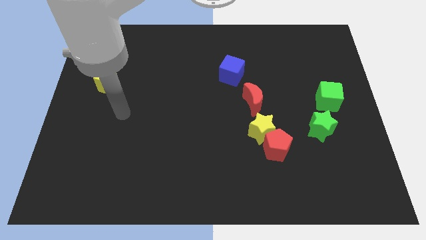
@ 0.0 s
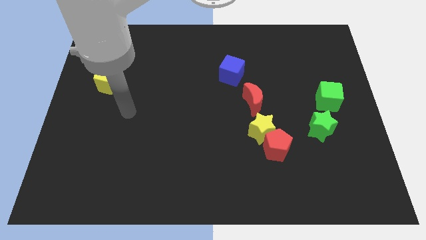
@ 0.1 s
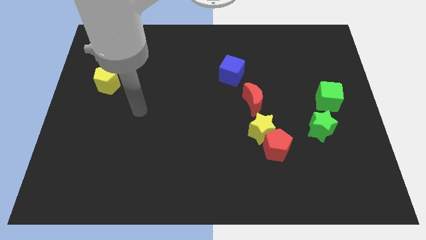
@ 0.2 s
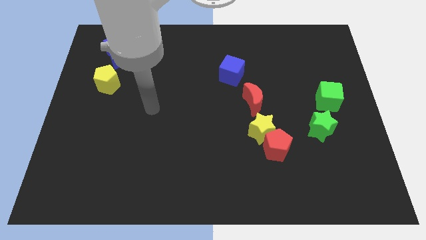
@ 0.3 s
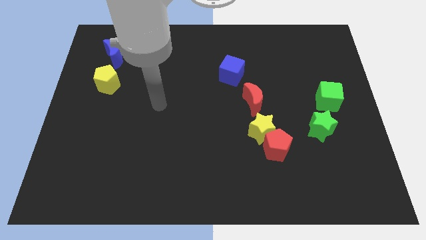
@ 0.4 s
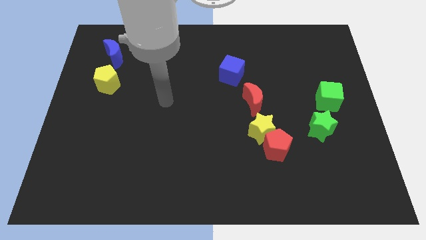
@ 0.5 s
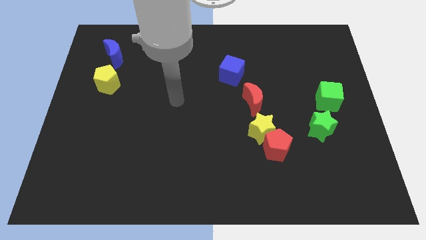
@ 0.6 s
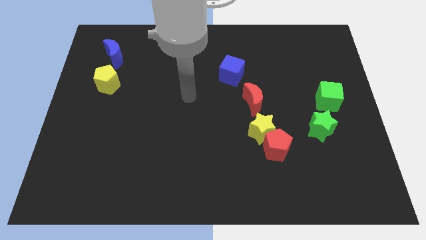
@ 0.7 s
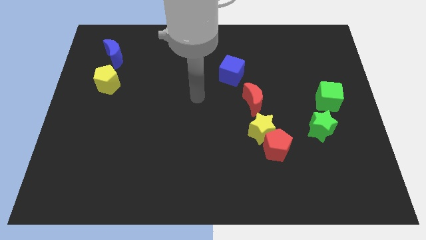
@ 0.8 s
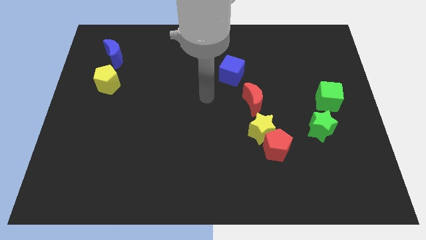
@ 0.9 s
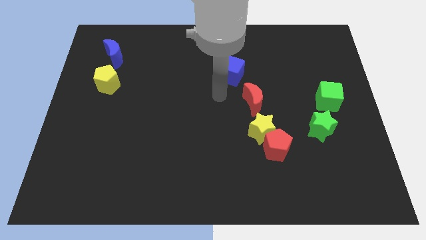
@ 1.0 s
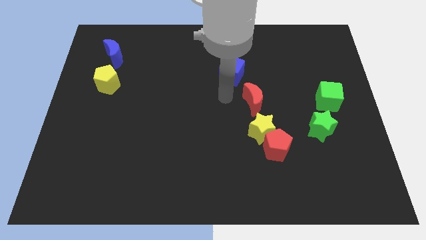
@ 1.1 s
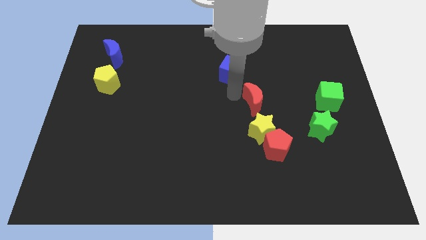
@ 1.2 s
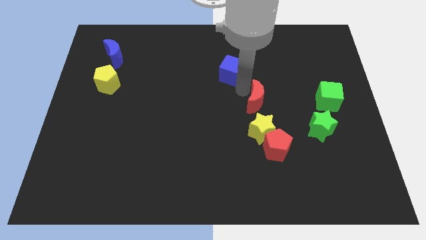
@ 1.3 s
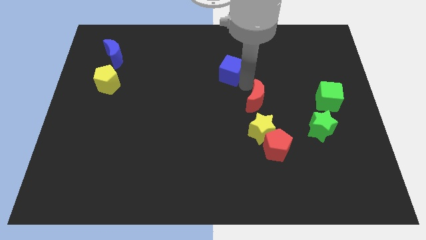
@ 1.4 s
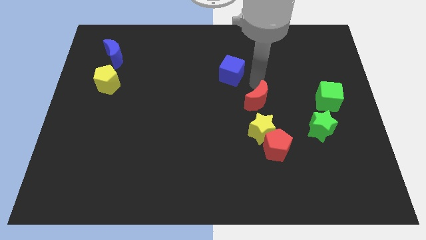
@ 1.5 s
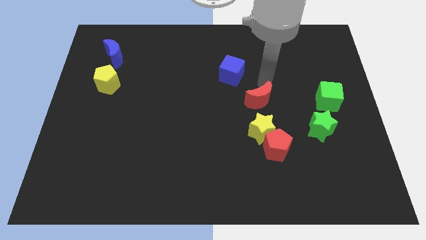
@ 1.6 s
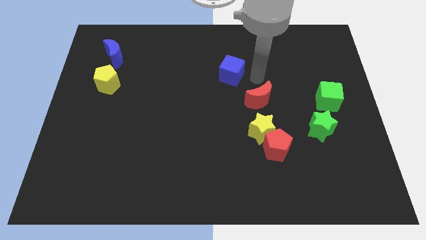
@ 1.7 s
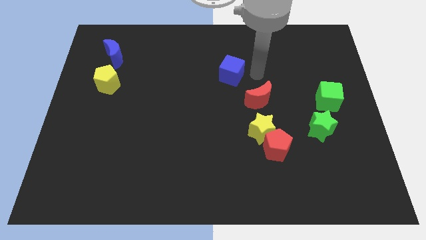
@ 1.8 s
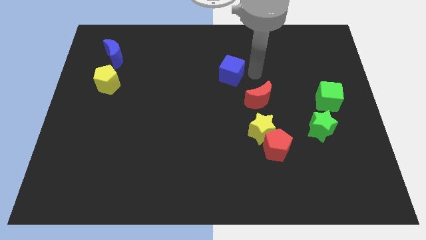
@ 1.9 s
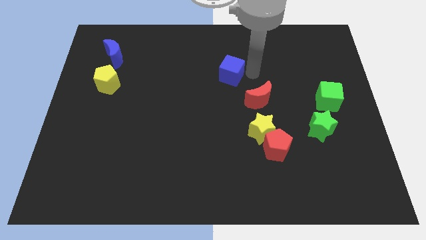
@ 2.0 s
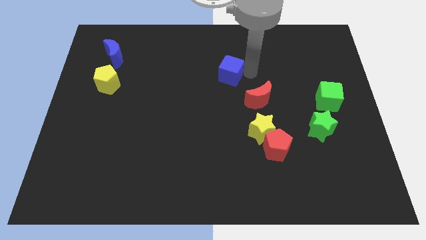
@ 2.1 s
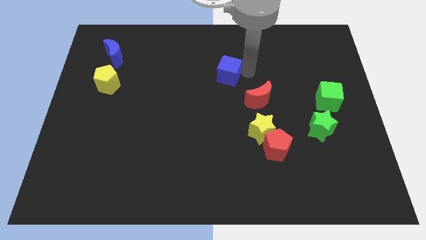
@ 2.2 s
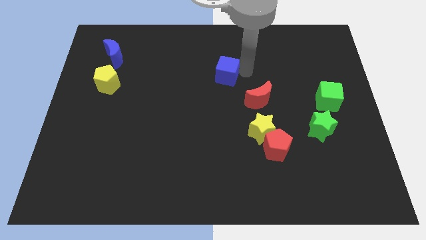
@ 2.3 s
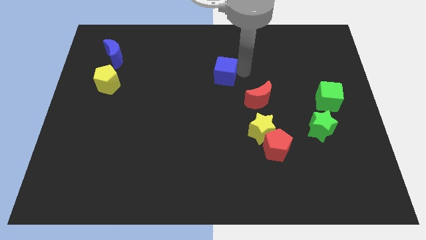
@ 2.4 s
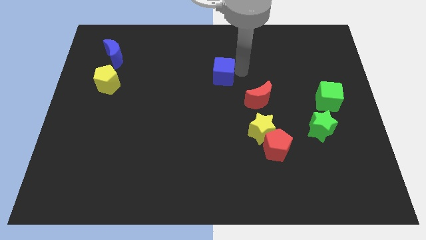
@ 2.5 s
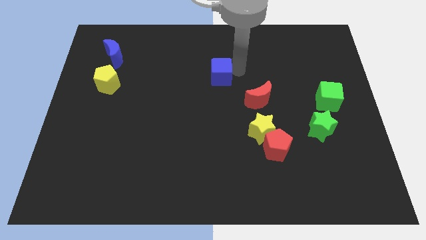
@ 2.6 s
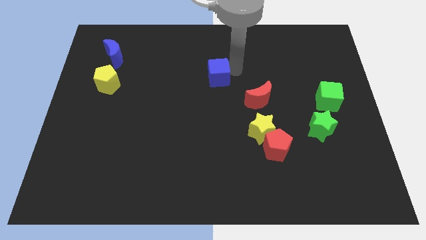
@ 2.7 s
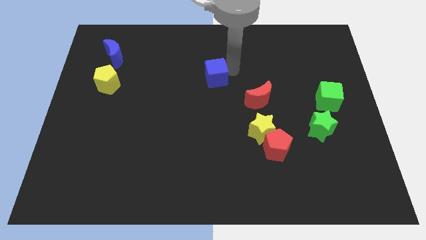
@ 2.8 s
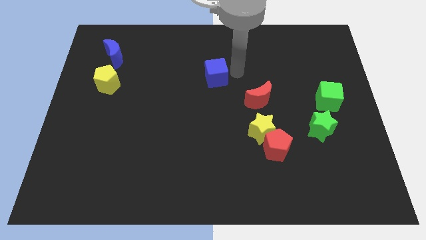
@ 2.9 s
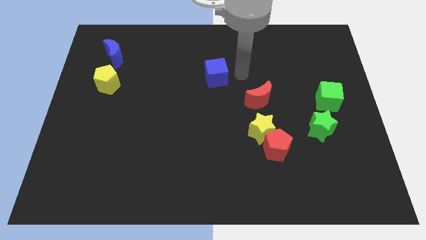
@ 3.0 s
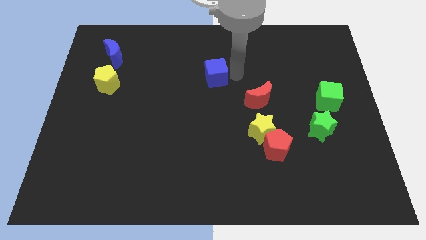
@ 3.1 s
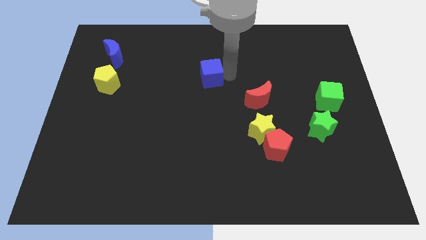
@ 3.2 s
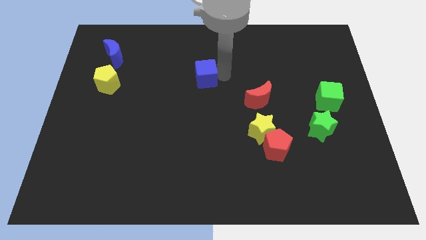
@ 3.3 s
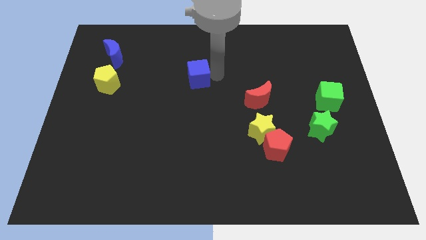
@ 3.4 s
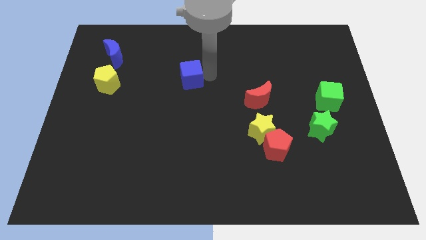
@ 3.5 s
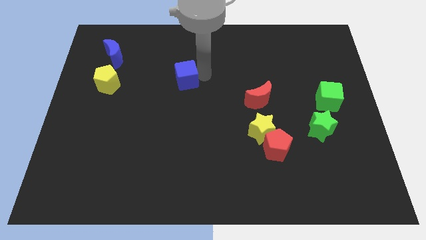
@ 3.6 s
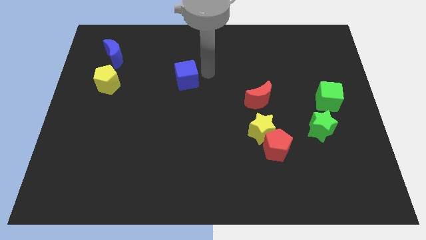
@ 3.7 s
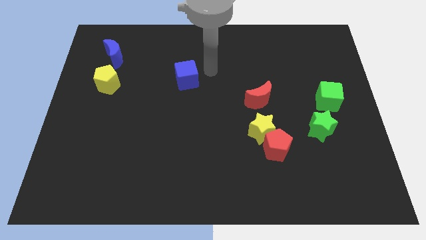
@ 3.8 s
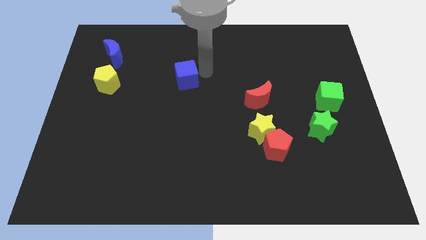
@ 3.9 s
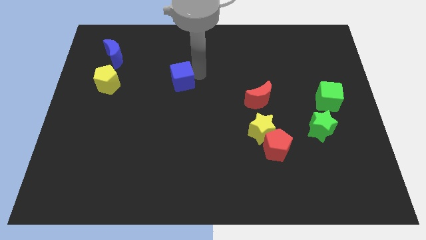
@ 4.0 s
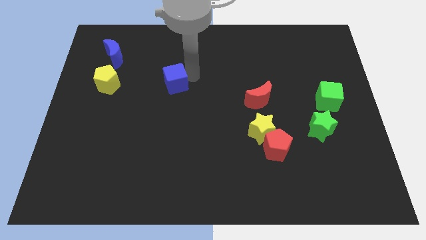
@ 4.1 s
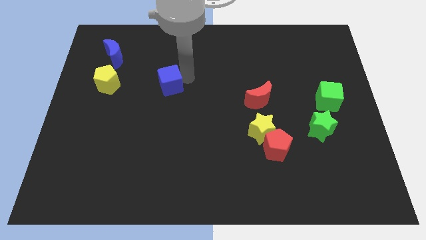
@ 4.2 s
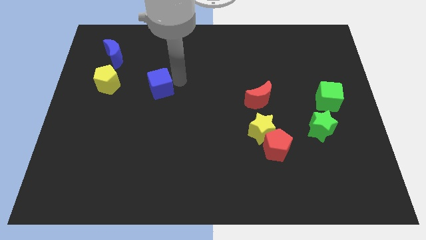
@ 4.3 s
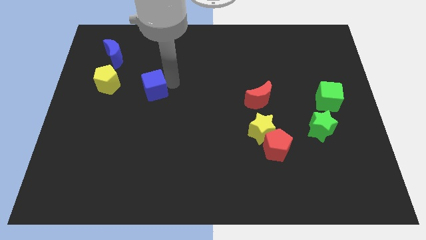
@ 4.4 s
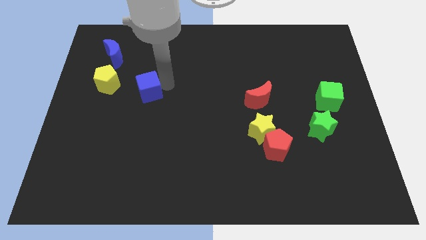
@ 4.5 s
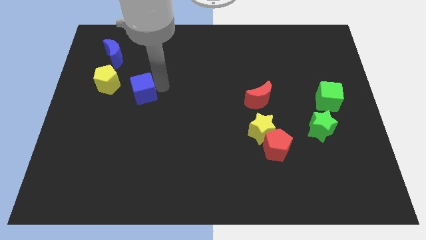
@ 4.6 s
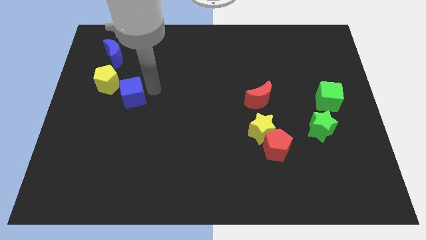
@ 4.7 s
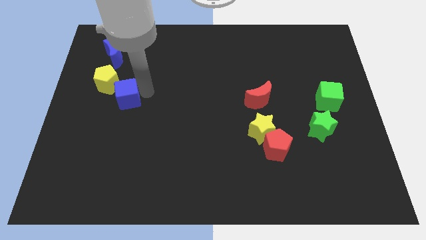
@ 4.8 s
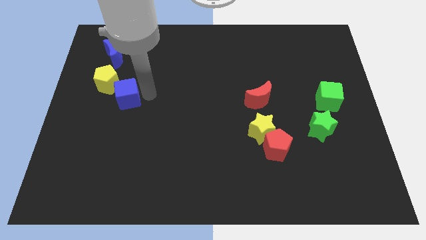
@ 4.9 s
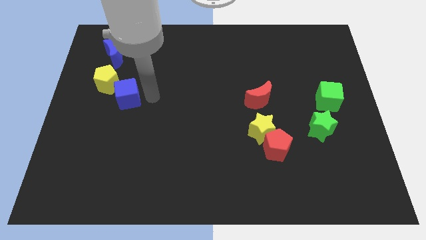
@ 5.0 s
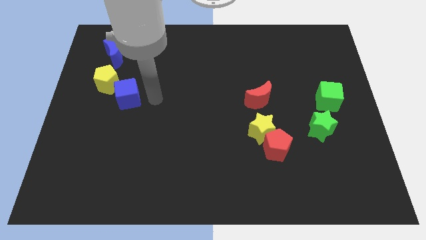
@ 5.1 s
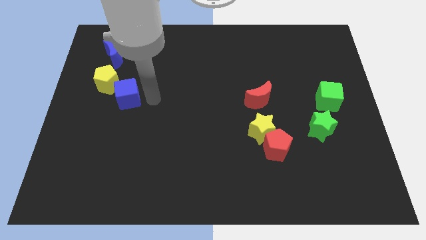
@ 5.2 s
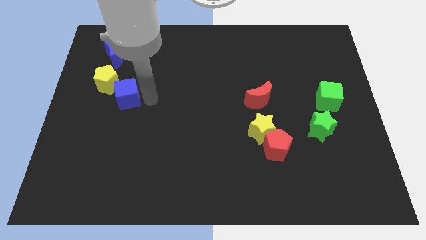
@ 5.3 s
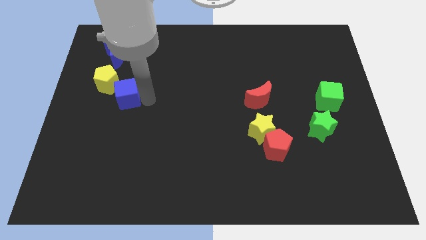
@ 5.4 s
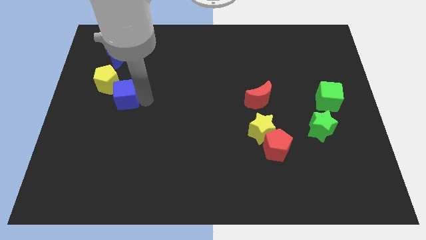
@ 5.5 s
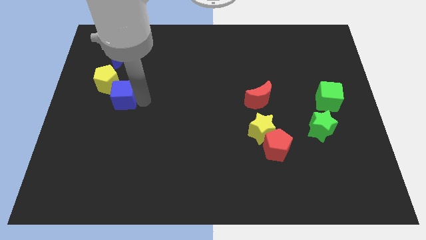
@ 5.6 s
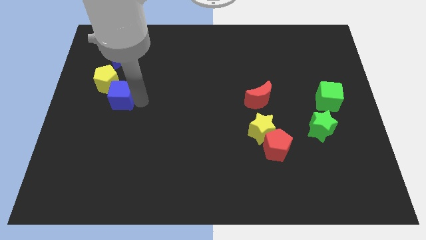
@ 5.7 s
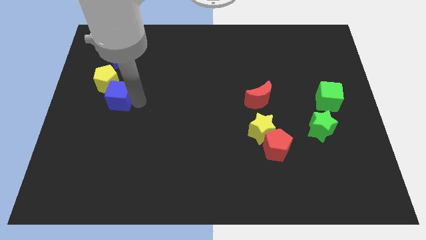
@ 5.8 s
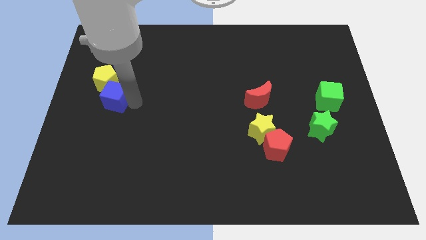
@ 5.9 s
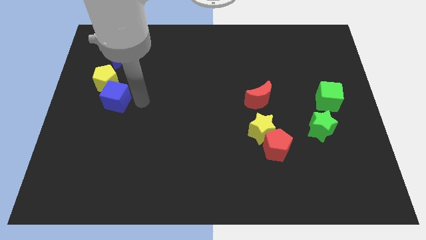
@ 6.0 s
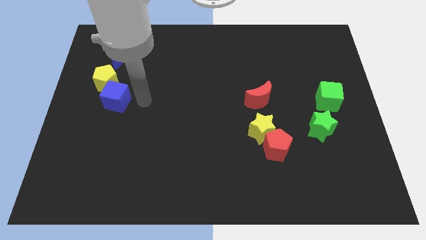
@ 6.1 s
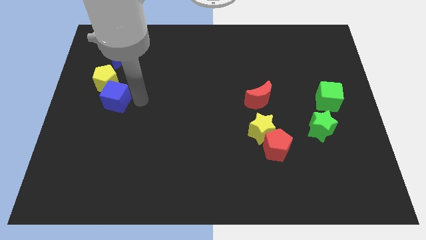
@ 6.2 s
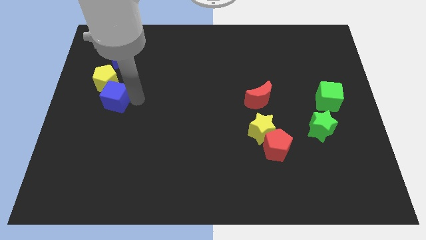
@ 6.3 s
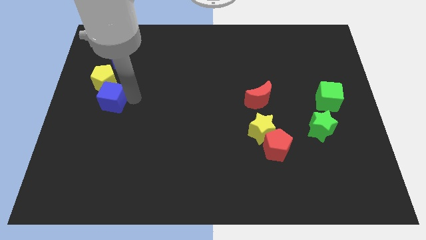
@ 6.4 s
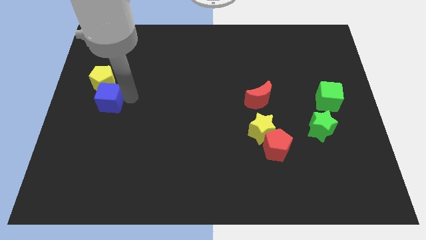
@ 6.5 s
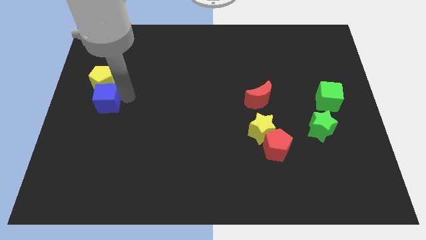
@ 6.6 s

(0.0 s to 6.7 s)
move the blue cube to the center left
